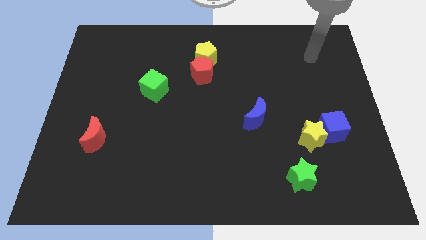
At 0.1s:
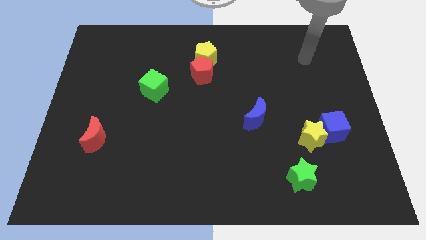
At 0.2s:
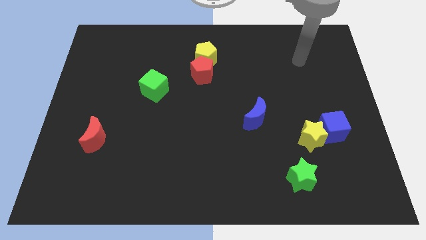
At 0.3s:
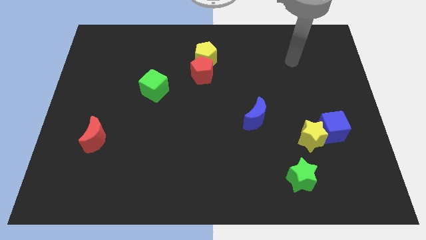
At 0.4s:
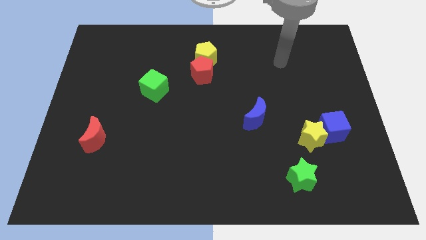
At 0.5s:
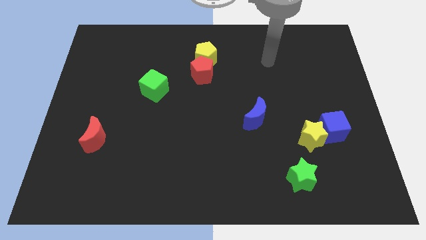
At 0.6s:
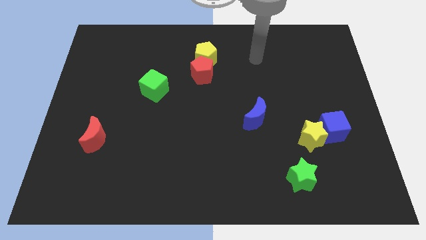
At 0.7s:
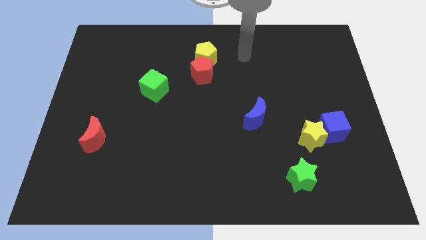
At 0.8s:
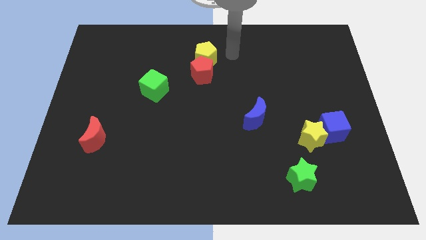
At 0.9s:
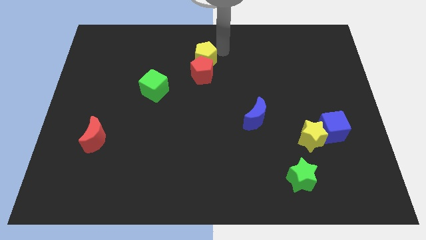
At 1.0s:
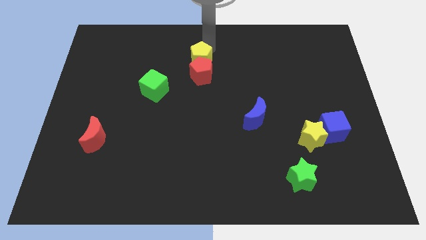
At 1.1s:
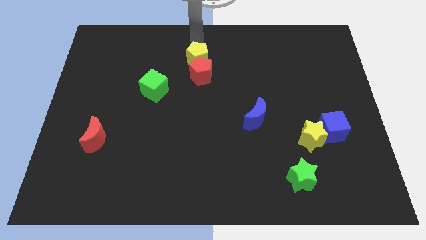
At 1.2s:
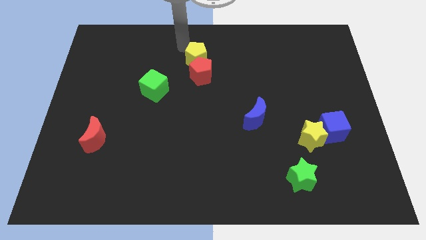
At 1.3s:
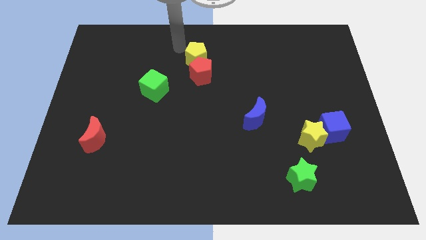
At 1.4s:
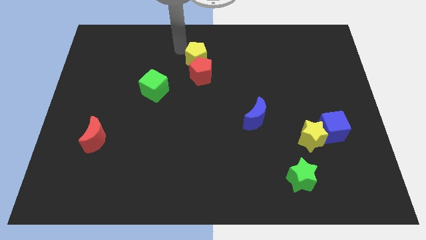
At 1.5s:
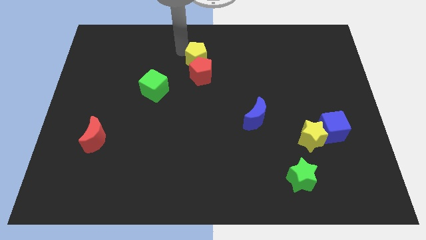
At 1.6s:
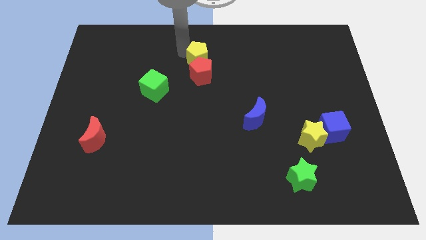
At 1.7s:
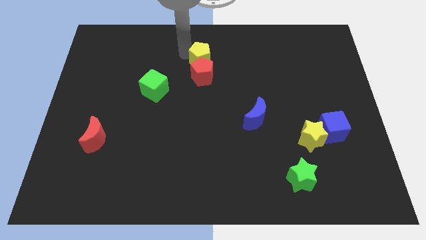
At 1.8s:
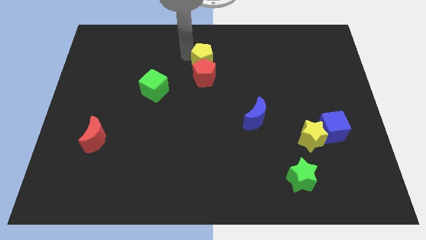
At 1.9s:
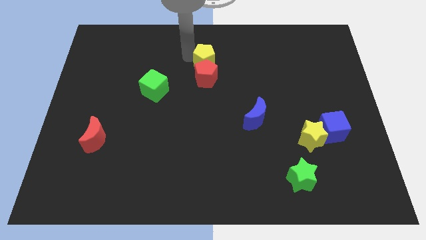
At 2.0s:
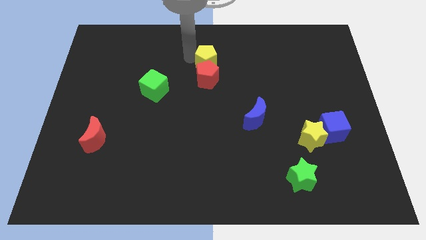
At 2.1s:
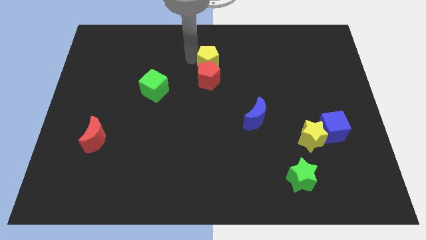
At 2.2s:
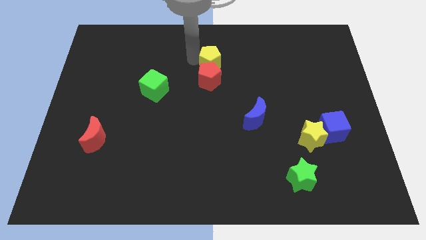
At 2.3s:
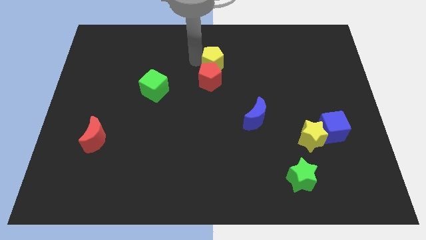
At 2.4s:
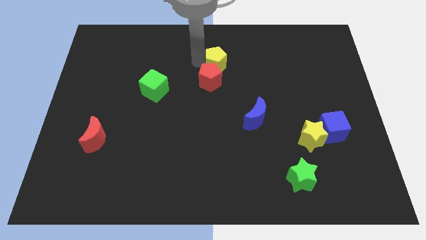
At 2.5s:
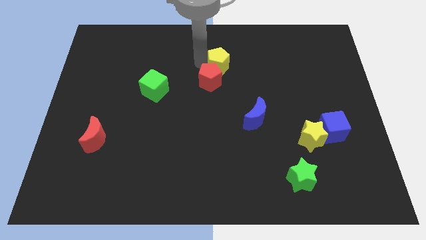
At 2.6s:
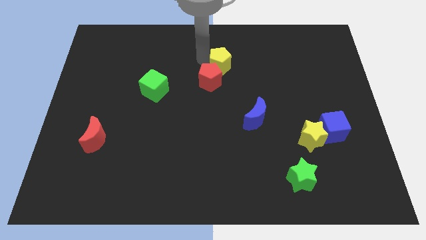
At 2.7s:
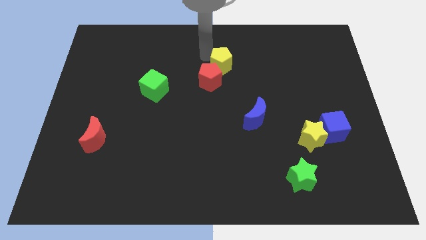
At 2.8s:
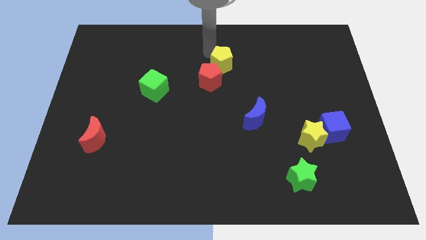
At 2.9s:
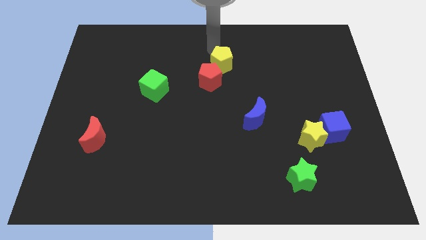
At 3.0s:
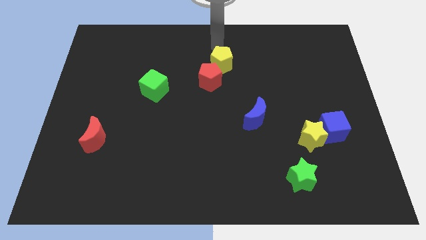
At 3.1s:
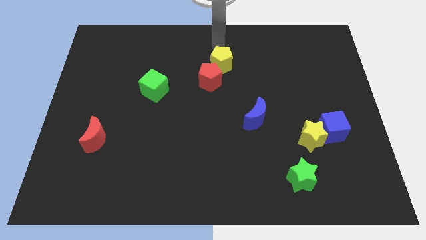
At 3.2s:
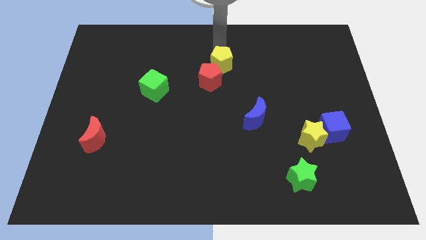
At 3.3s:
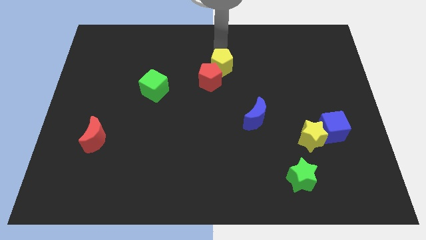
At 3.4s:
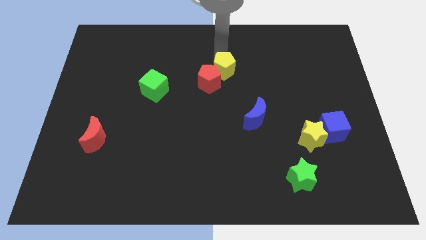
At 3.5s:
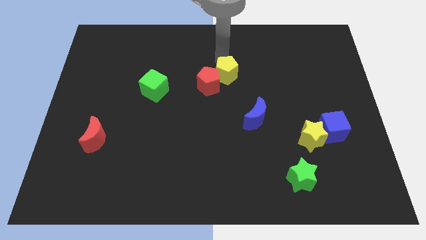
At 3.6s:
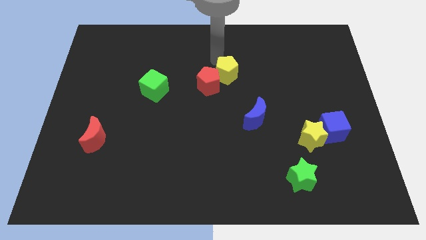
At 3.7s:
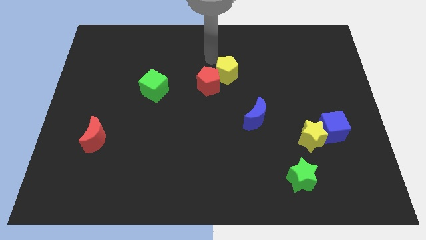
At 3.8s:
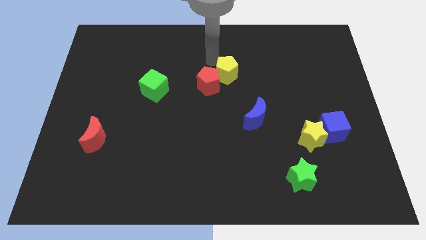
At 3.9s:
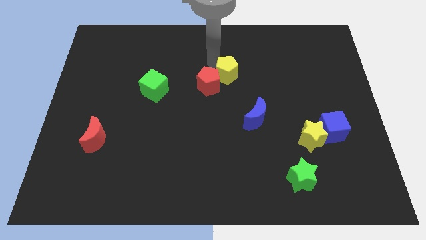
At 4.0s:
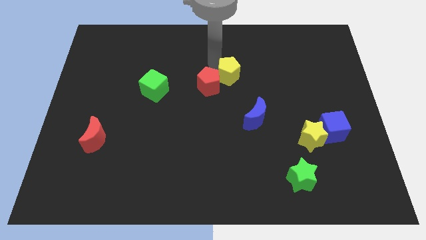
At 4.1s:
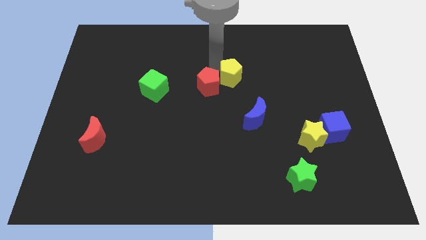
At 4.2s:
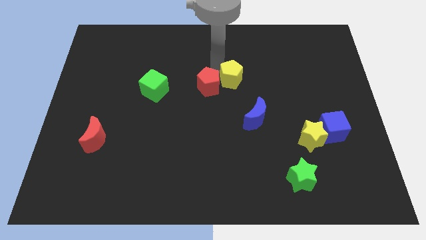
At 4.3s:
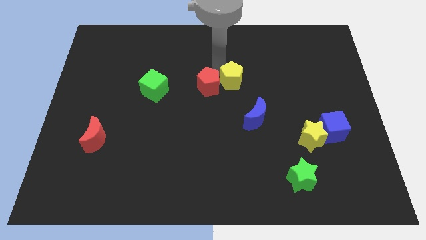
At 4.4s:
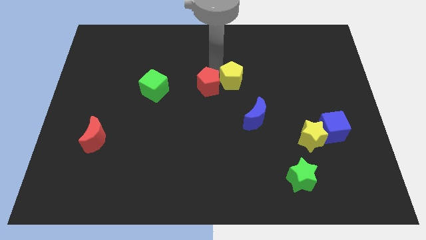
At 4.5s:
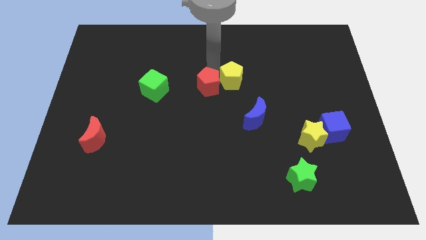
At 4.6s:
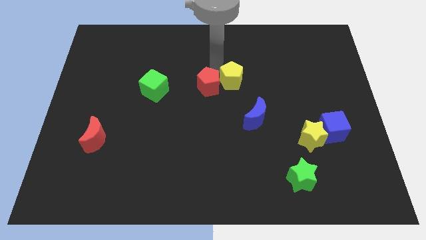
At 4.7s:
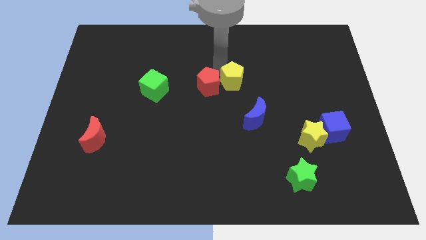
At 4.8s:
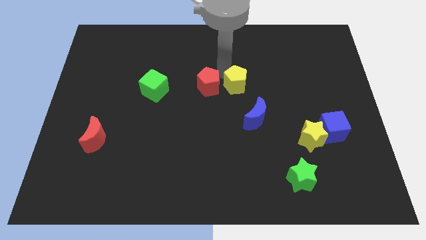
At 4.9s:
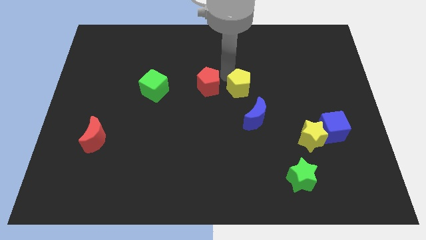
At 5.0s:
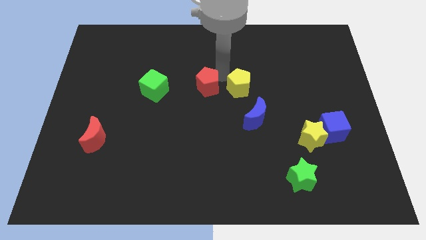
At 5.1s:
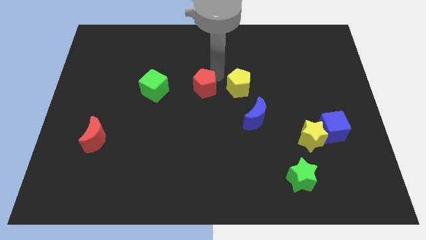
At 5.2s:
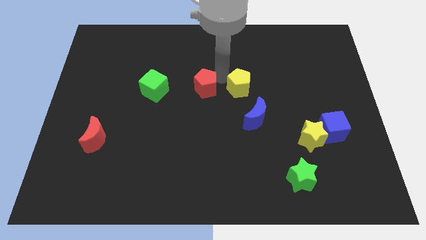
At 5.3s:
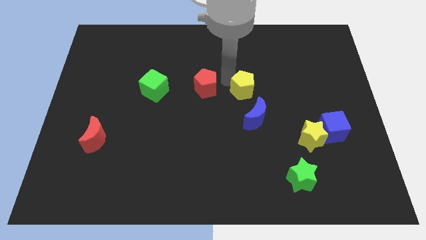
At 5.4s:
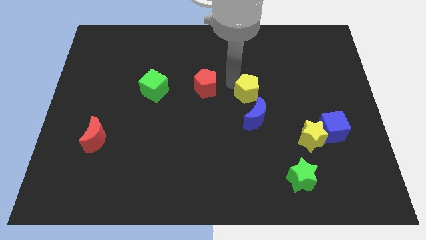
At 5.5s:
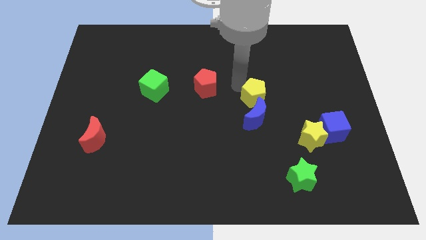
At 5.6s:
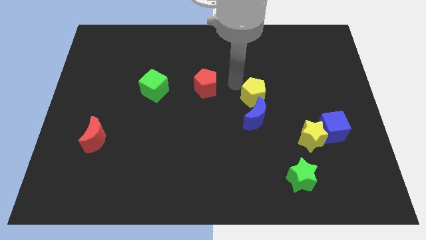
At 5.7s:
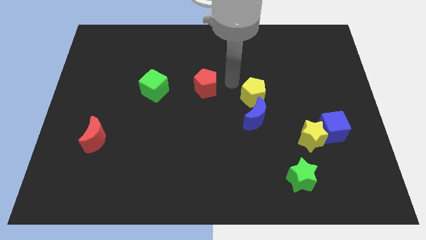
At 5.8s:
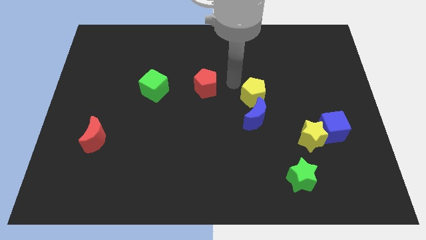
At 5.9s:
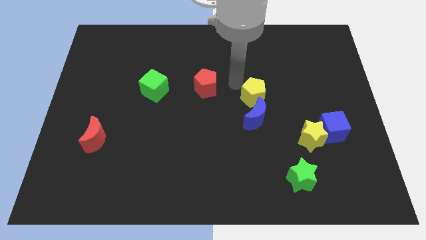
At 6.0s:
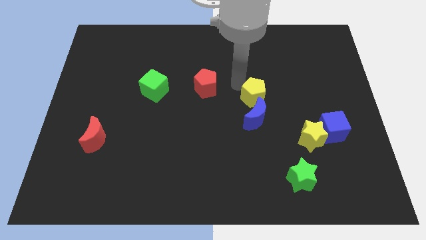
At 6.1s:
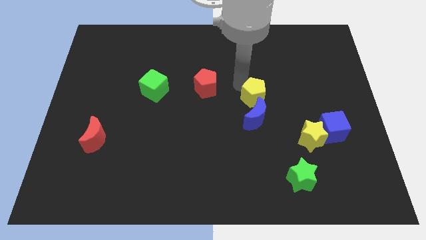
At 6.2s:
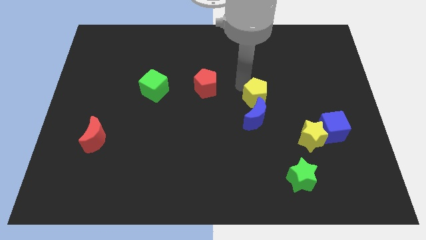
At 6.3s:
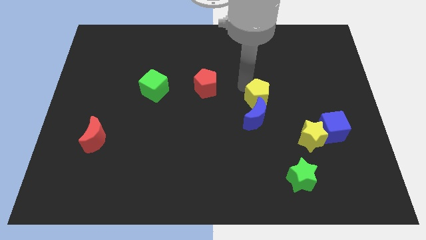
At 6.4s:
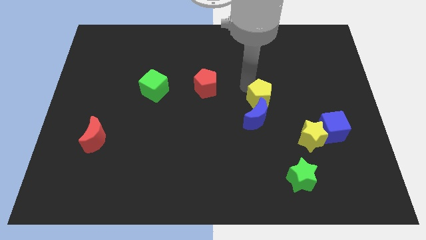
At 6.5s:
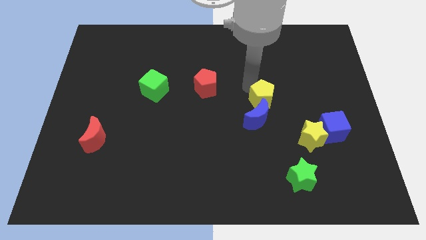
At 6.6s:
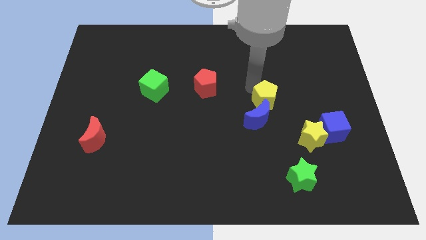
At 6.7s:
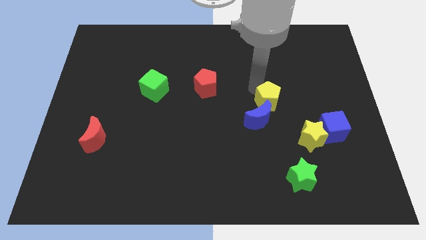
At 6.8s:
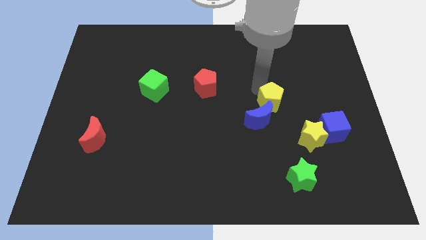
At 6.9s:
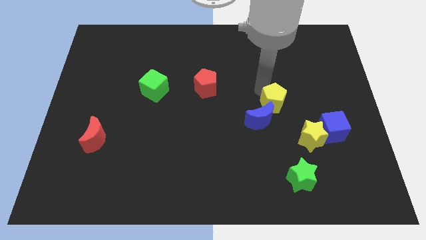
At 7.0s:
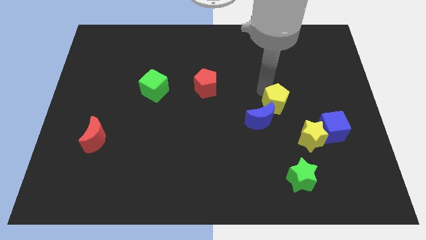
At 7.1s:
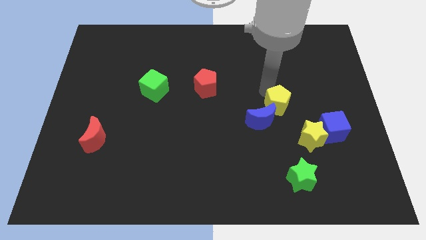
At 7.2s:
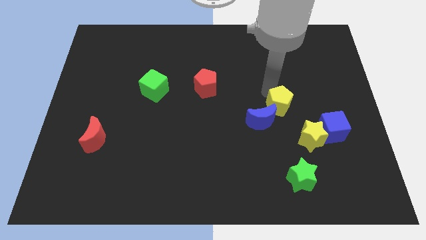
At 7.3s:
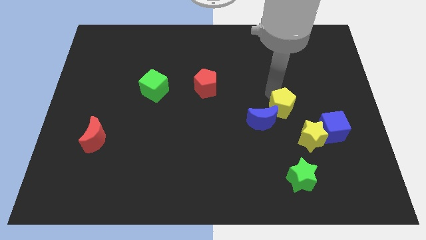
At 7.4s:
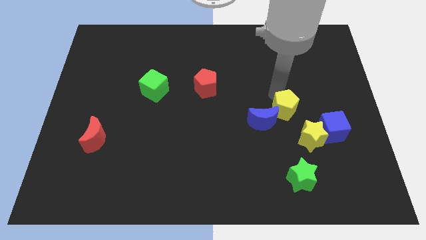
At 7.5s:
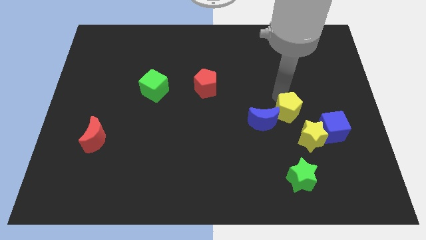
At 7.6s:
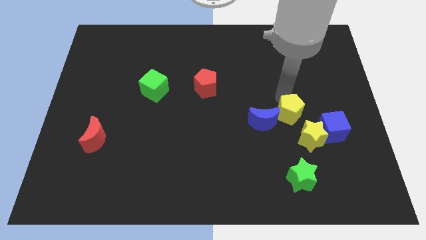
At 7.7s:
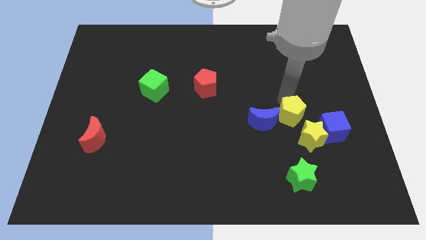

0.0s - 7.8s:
slide the yellow pentagon to the top side of the green star
